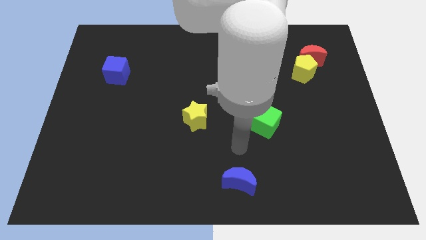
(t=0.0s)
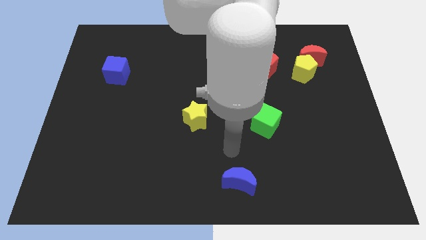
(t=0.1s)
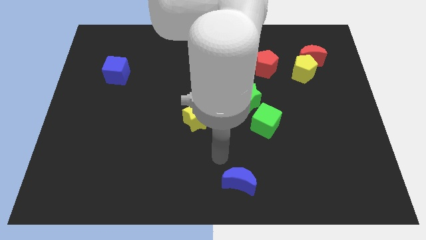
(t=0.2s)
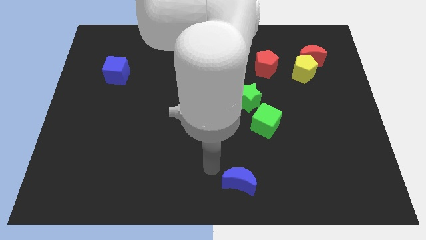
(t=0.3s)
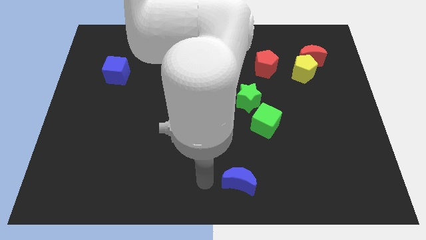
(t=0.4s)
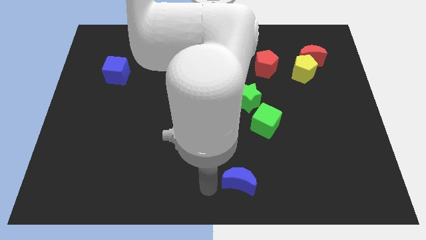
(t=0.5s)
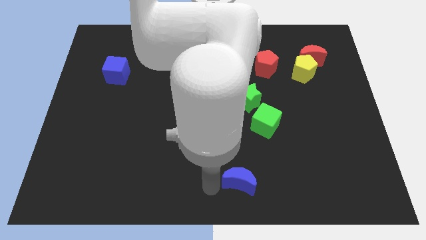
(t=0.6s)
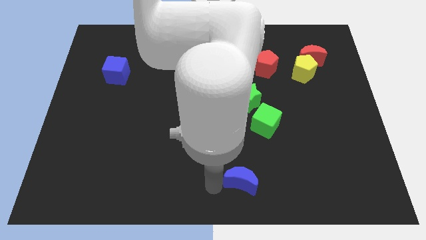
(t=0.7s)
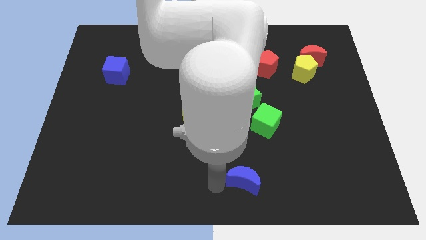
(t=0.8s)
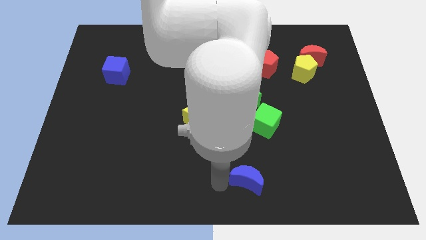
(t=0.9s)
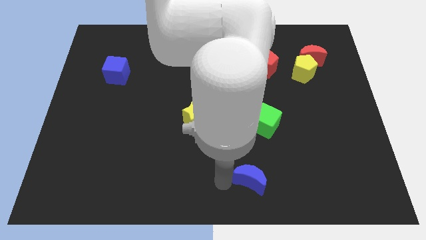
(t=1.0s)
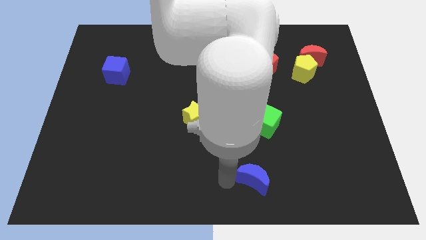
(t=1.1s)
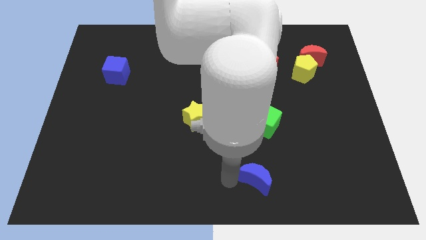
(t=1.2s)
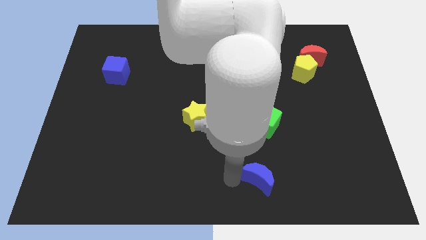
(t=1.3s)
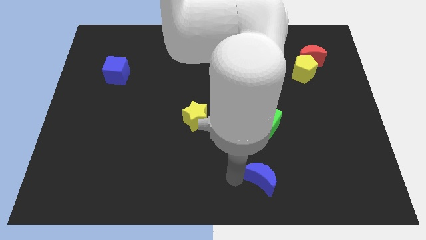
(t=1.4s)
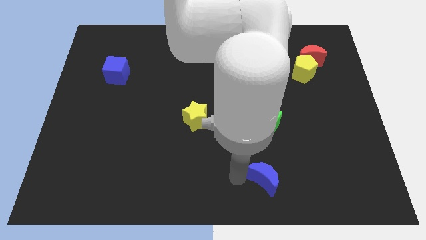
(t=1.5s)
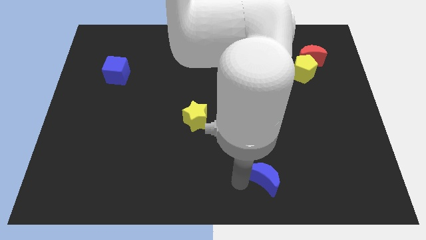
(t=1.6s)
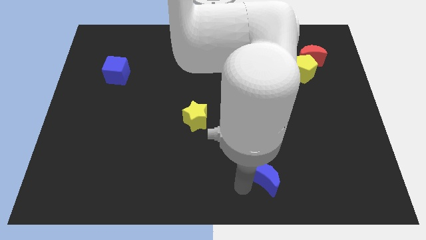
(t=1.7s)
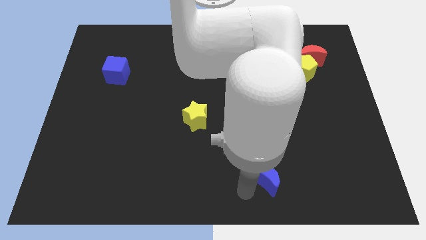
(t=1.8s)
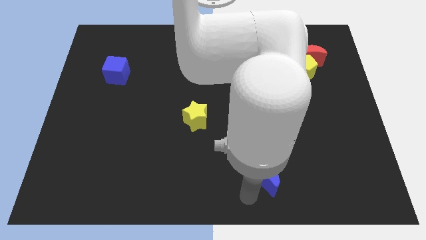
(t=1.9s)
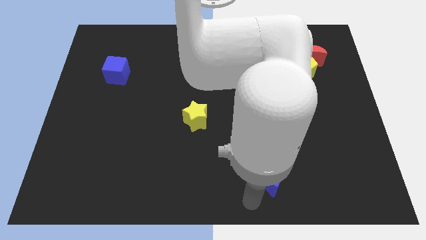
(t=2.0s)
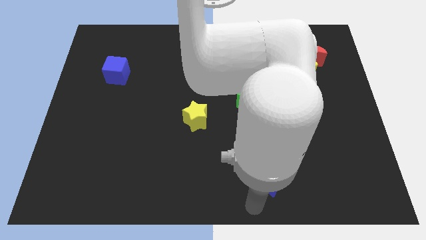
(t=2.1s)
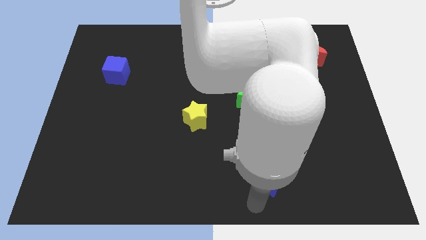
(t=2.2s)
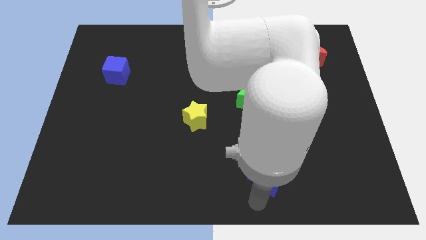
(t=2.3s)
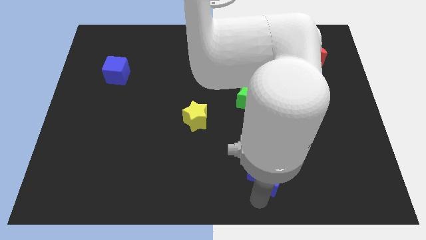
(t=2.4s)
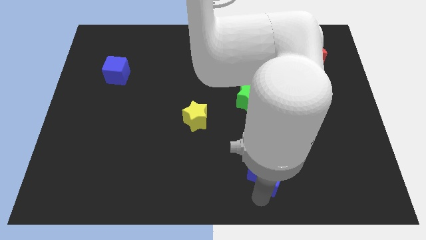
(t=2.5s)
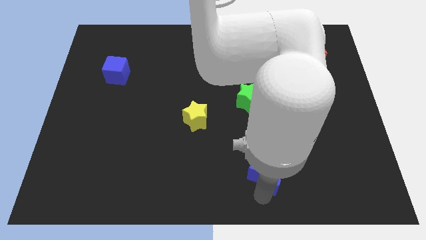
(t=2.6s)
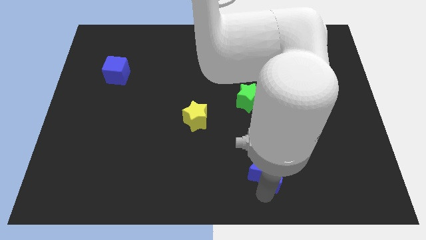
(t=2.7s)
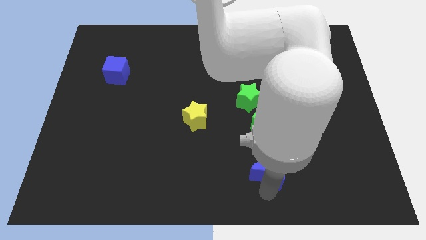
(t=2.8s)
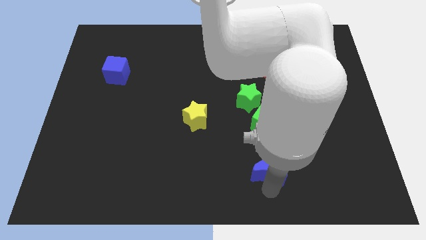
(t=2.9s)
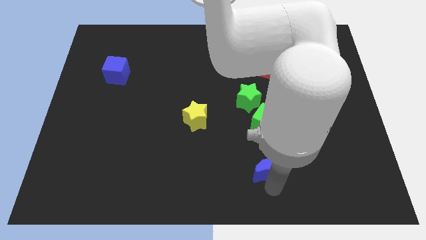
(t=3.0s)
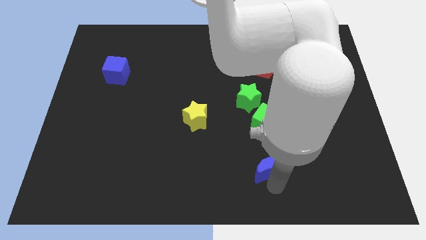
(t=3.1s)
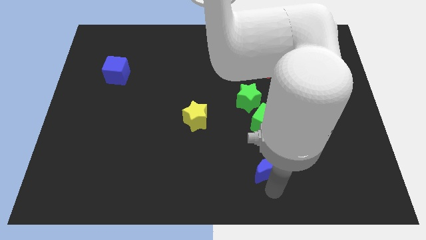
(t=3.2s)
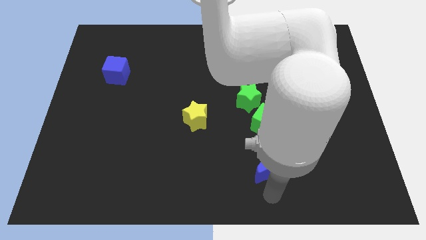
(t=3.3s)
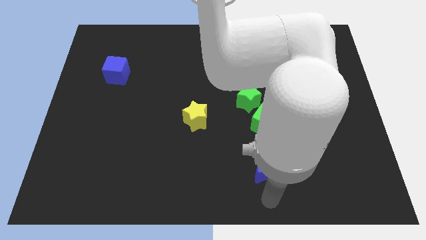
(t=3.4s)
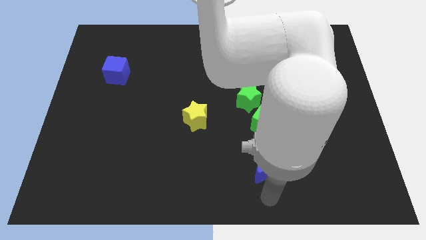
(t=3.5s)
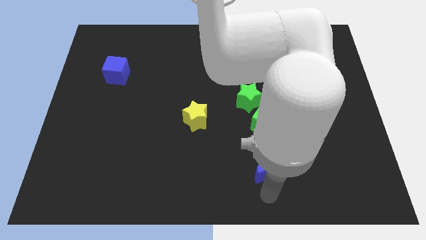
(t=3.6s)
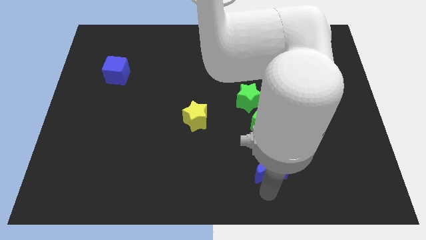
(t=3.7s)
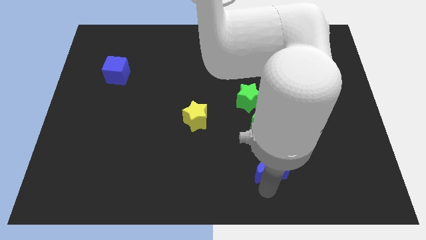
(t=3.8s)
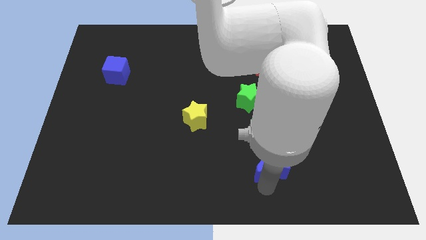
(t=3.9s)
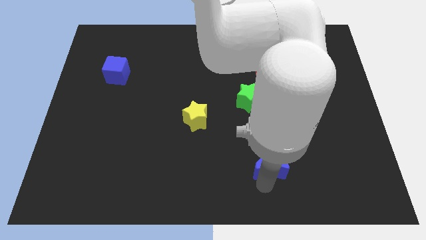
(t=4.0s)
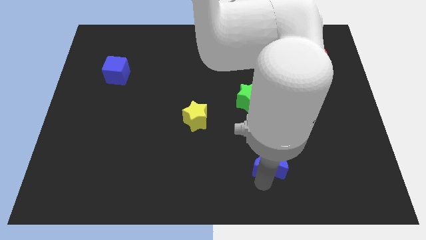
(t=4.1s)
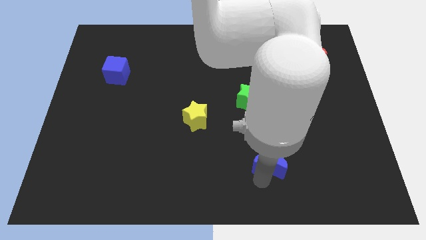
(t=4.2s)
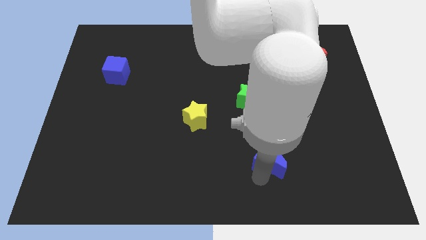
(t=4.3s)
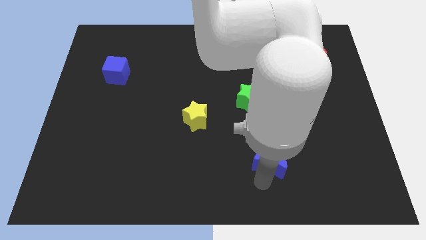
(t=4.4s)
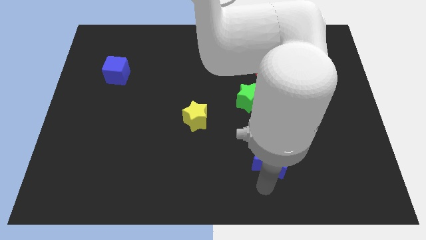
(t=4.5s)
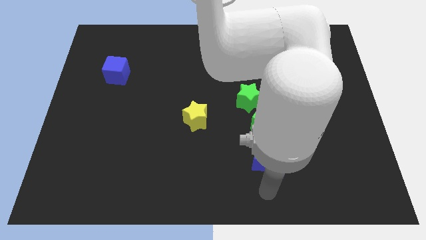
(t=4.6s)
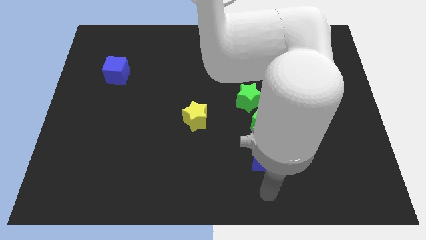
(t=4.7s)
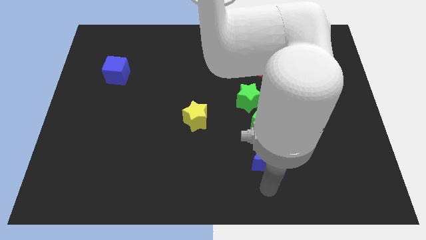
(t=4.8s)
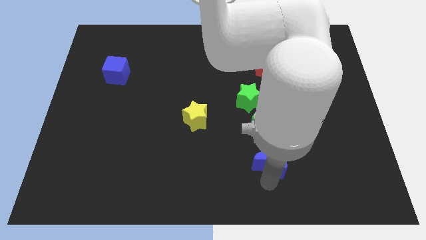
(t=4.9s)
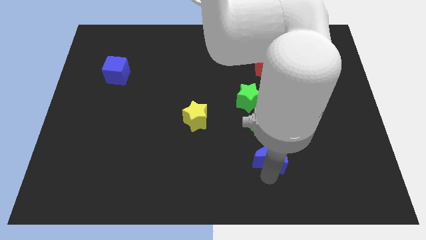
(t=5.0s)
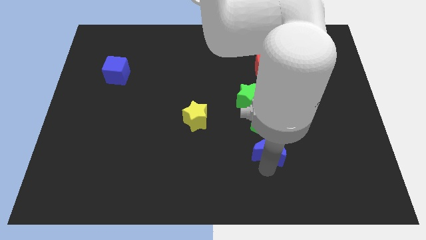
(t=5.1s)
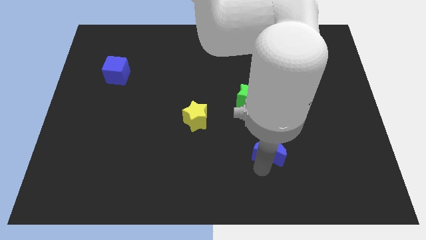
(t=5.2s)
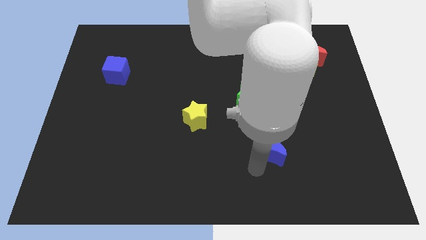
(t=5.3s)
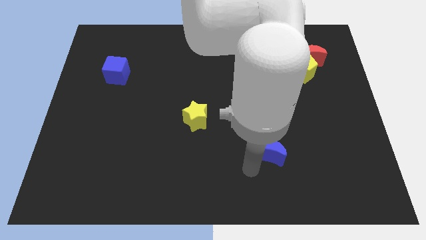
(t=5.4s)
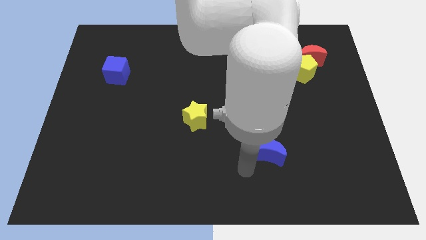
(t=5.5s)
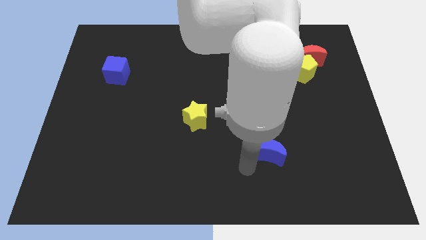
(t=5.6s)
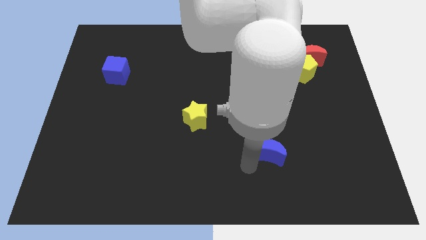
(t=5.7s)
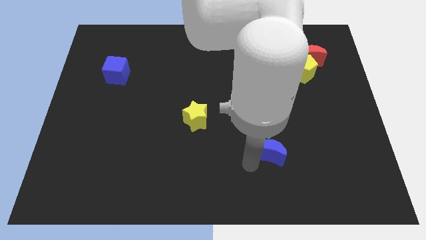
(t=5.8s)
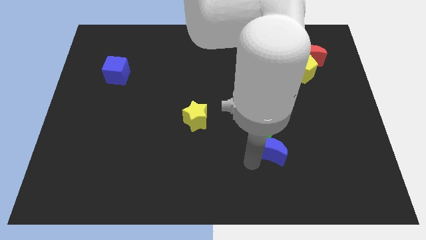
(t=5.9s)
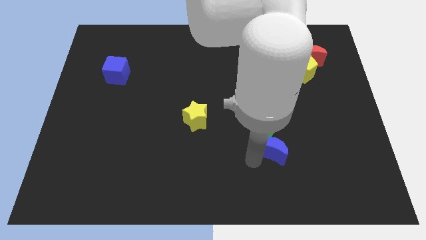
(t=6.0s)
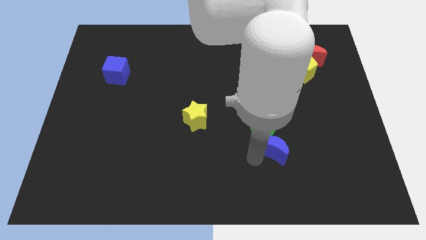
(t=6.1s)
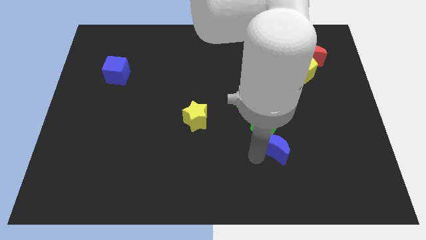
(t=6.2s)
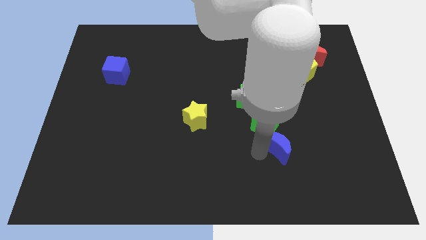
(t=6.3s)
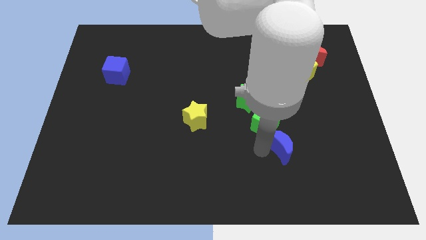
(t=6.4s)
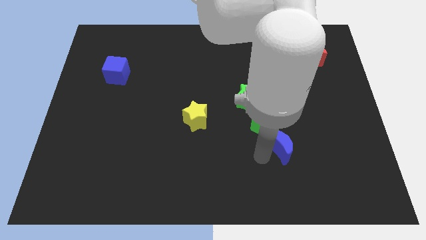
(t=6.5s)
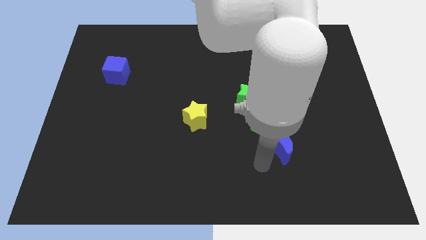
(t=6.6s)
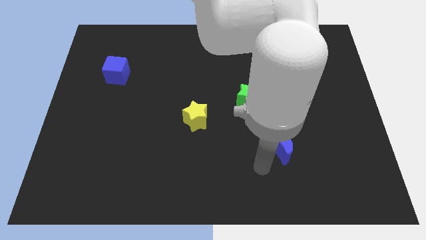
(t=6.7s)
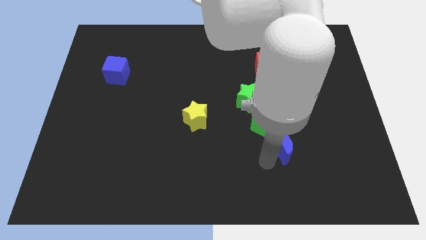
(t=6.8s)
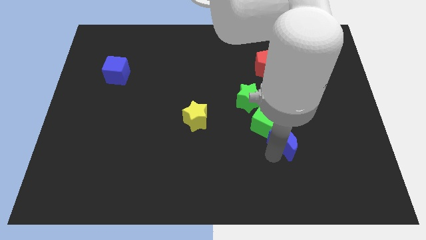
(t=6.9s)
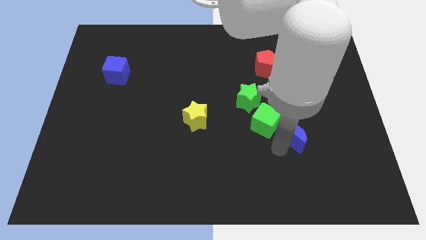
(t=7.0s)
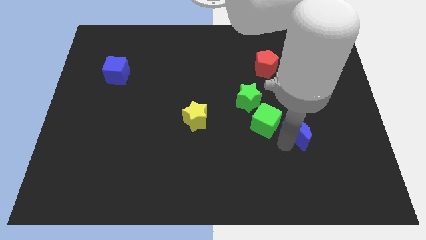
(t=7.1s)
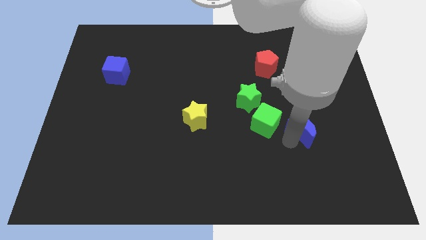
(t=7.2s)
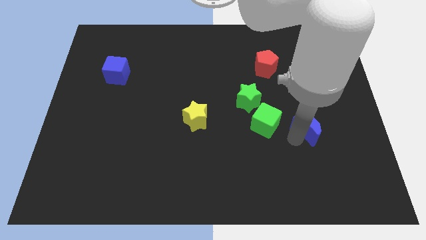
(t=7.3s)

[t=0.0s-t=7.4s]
push the blue moon upwards and then to the right

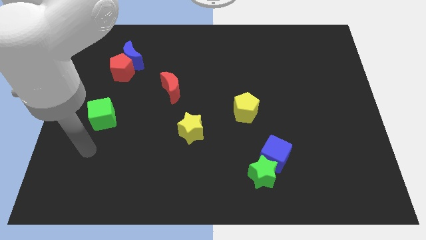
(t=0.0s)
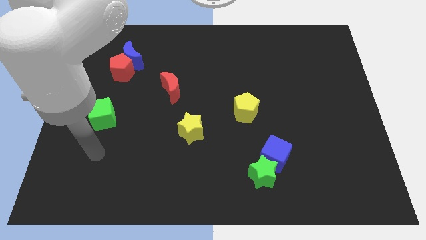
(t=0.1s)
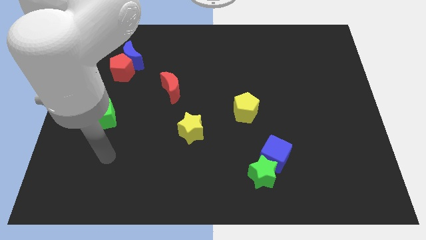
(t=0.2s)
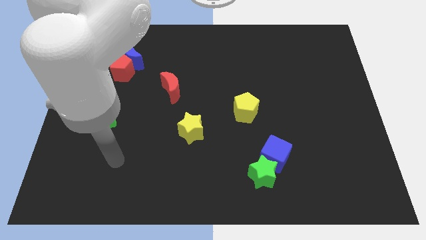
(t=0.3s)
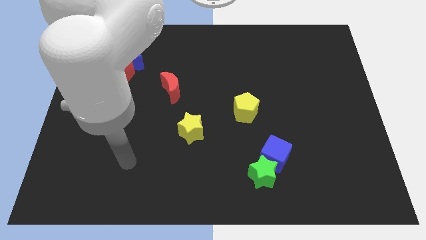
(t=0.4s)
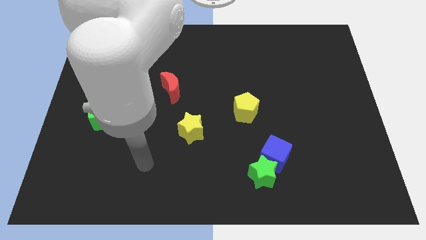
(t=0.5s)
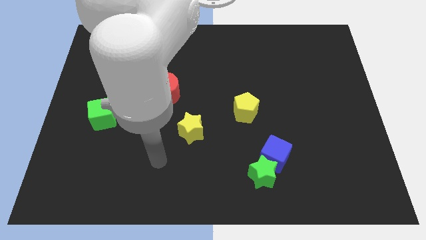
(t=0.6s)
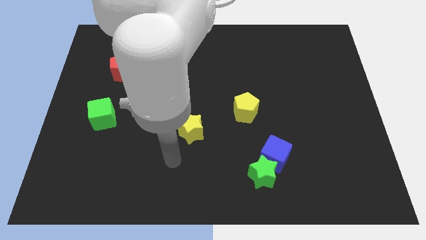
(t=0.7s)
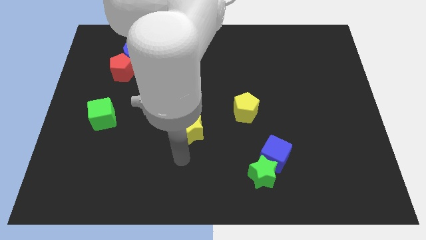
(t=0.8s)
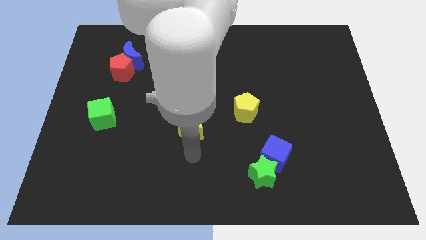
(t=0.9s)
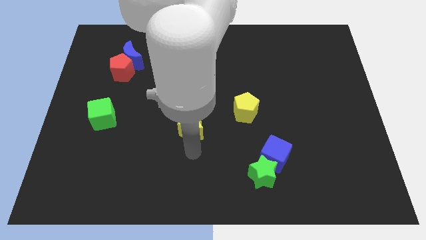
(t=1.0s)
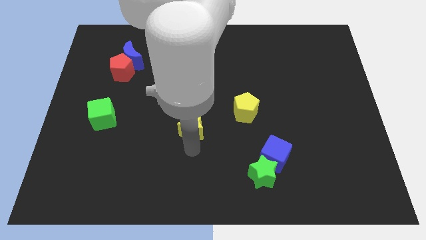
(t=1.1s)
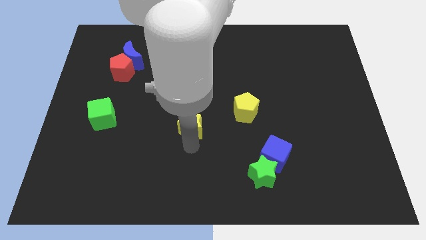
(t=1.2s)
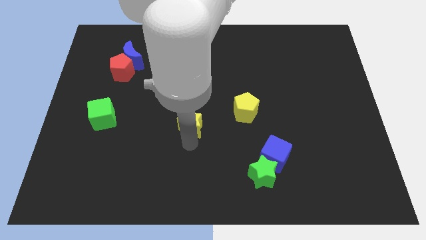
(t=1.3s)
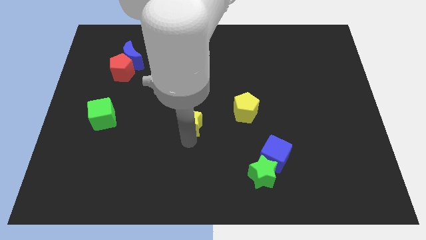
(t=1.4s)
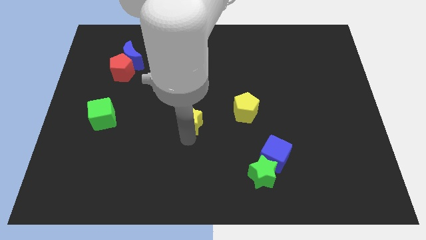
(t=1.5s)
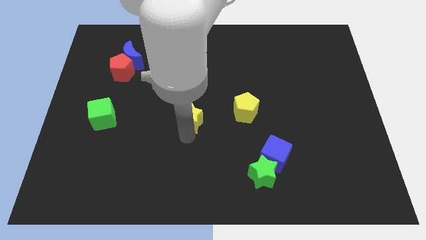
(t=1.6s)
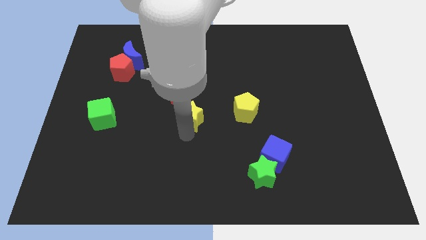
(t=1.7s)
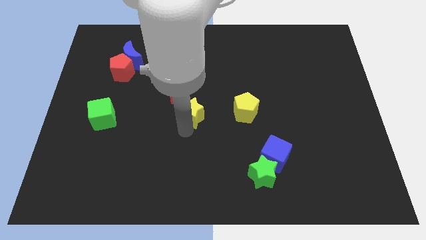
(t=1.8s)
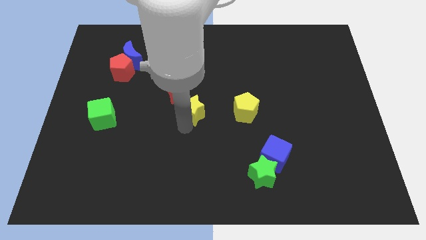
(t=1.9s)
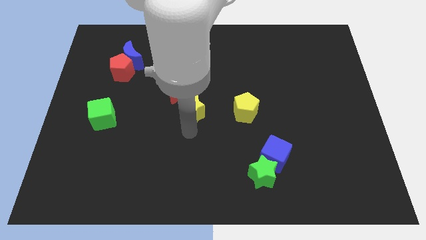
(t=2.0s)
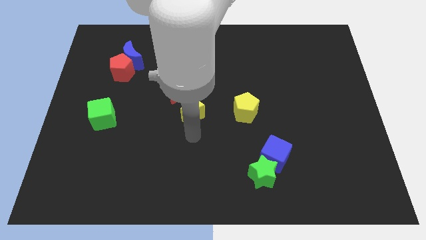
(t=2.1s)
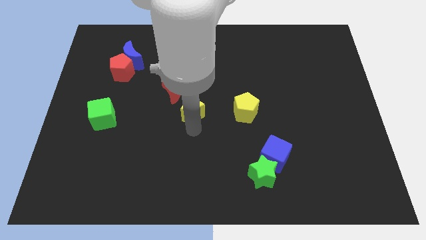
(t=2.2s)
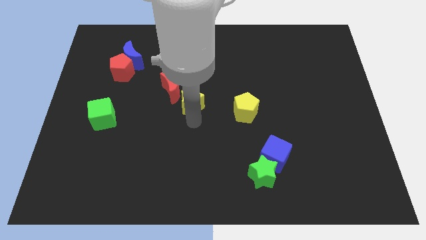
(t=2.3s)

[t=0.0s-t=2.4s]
slightly push the yellow star up
